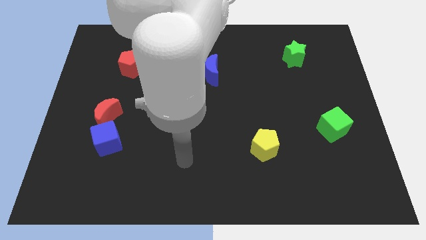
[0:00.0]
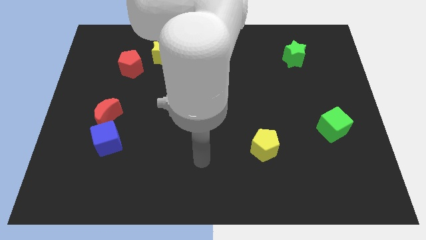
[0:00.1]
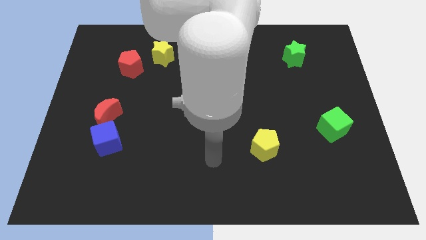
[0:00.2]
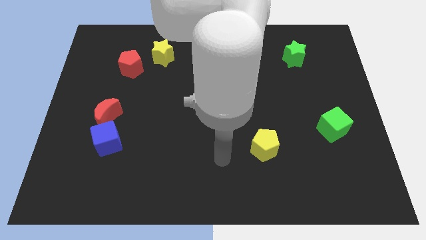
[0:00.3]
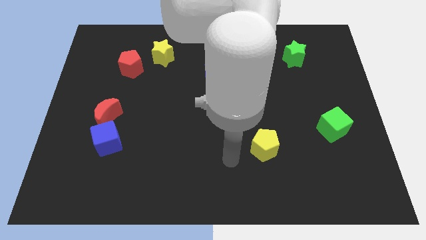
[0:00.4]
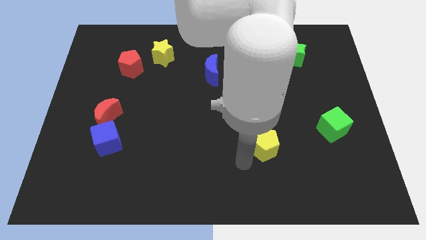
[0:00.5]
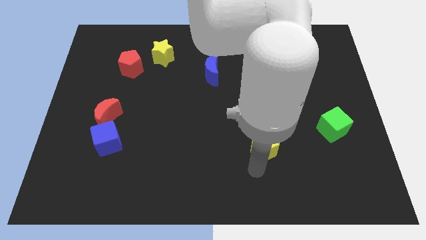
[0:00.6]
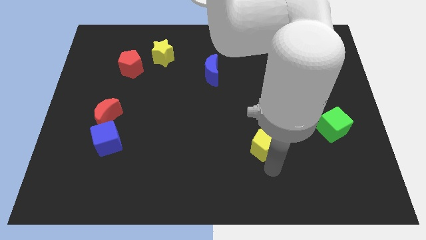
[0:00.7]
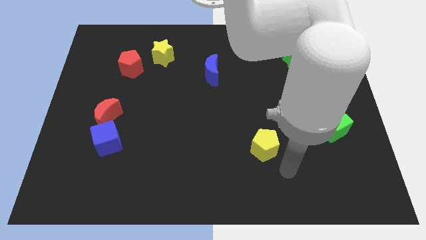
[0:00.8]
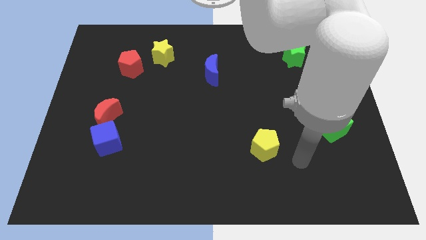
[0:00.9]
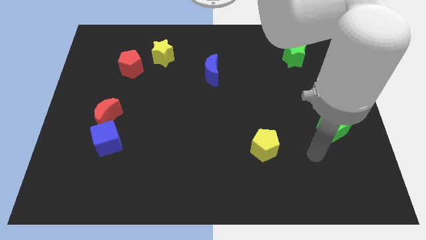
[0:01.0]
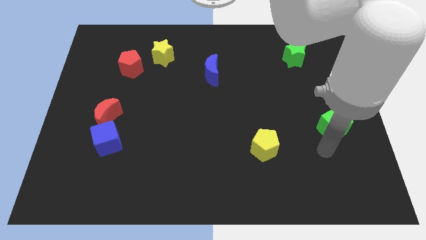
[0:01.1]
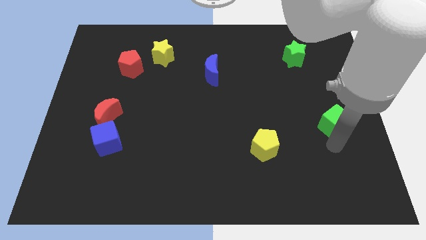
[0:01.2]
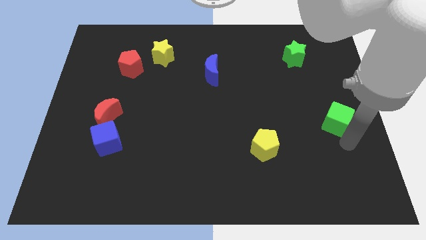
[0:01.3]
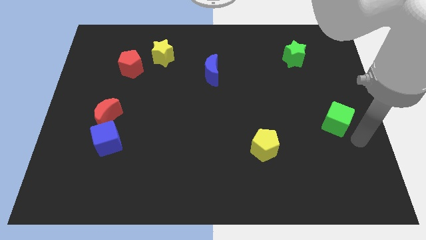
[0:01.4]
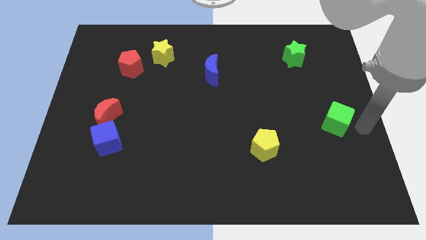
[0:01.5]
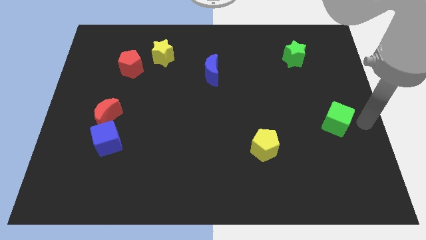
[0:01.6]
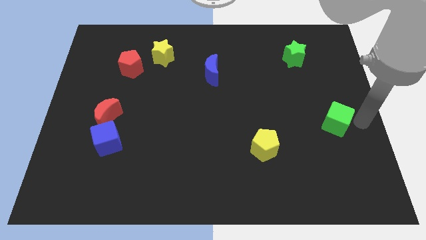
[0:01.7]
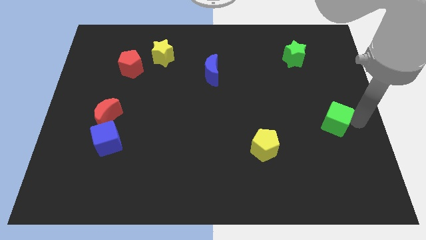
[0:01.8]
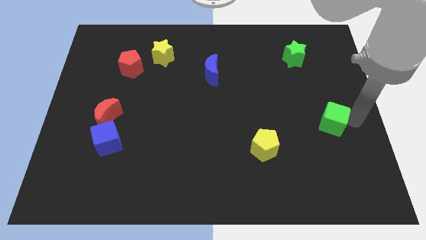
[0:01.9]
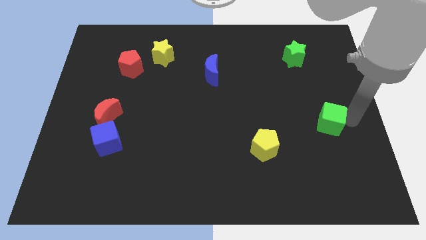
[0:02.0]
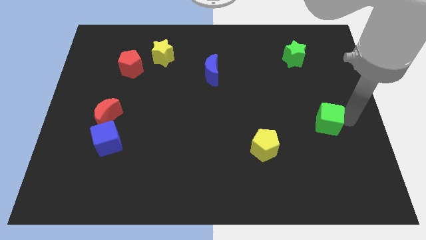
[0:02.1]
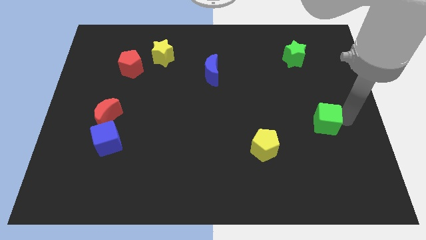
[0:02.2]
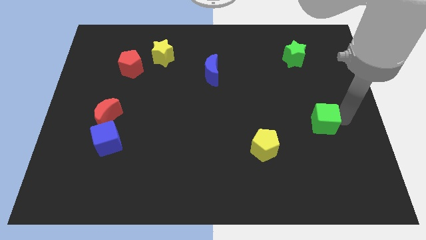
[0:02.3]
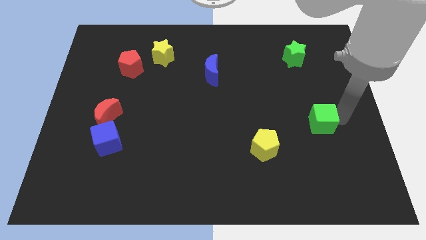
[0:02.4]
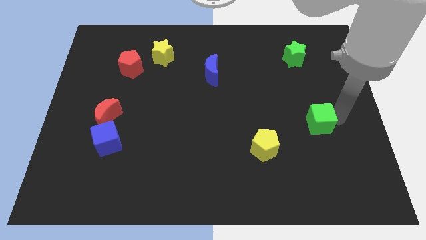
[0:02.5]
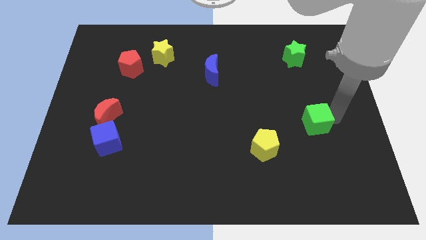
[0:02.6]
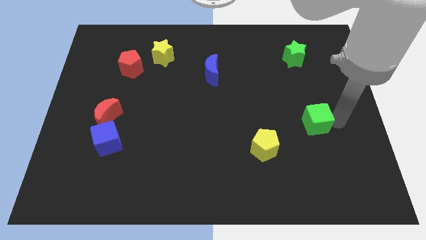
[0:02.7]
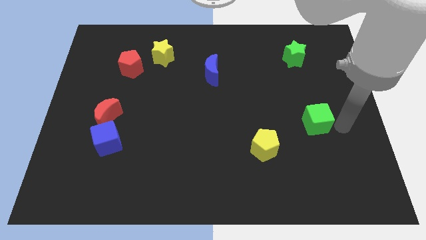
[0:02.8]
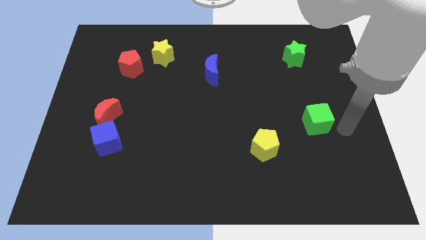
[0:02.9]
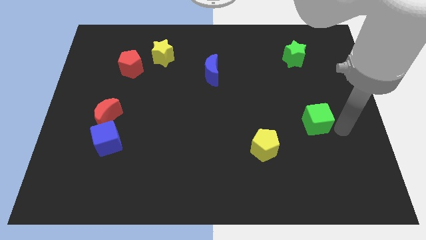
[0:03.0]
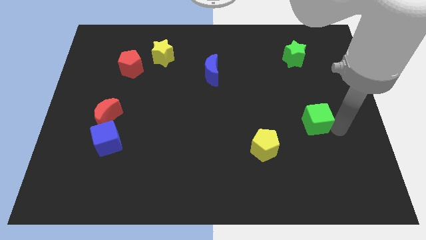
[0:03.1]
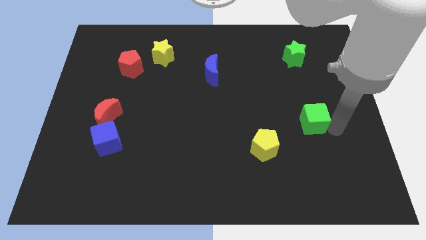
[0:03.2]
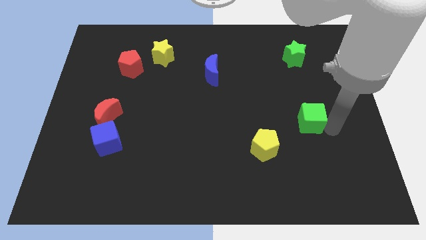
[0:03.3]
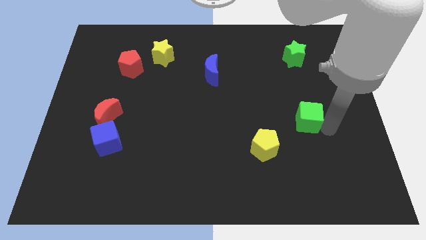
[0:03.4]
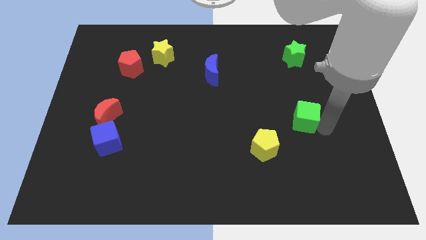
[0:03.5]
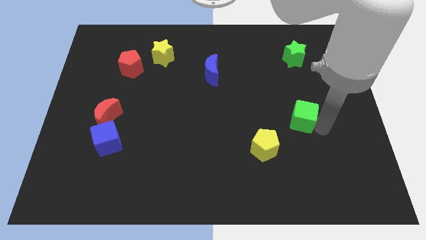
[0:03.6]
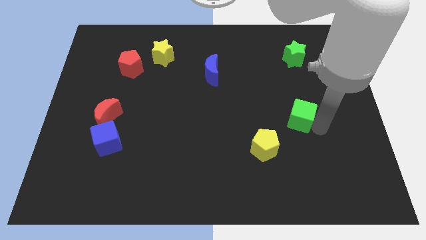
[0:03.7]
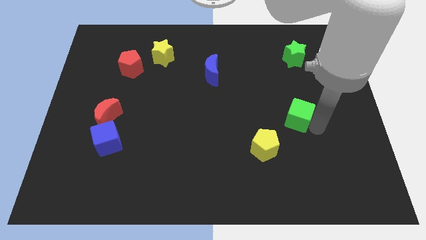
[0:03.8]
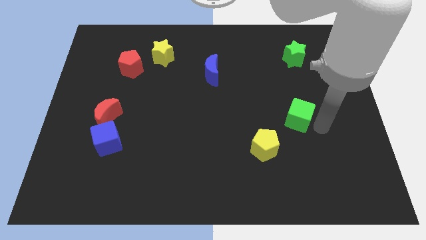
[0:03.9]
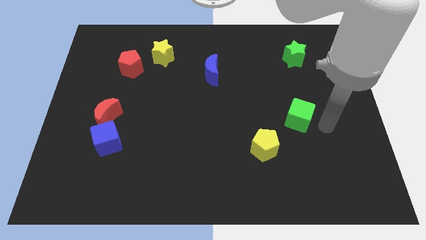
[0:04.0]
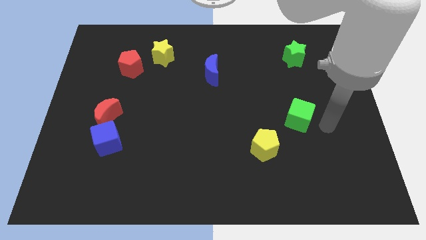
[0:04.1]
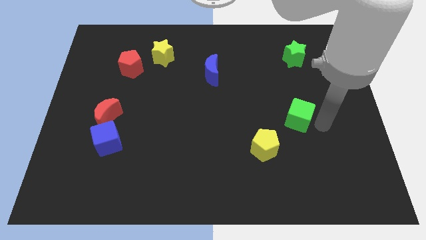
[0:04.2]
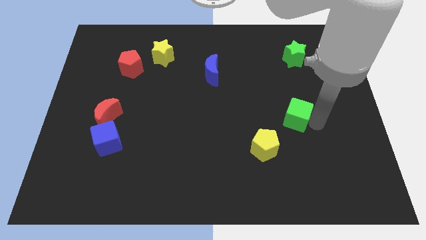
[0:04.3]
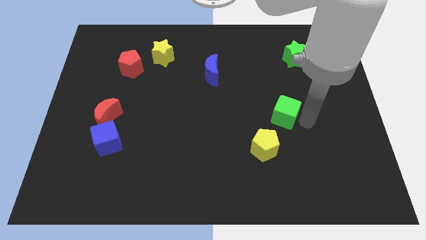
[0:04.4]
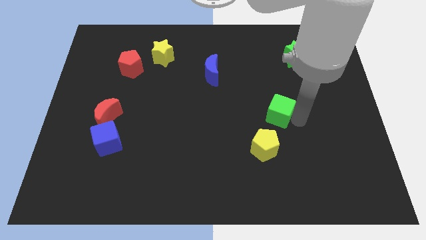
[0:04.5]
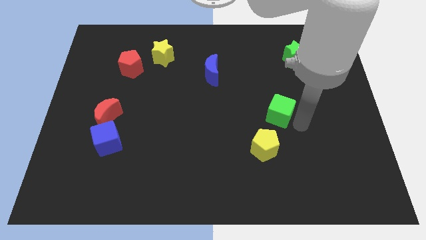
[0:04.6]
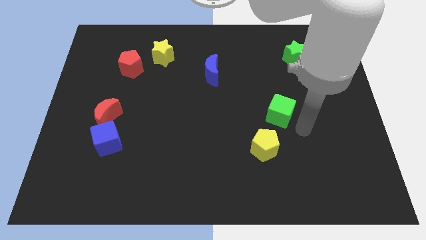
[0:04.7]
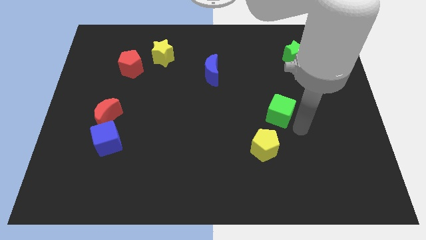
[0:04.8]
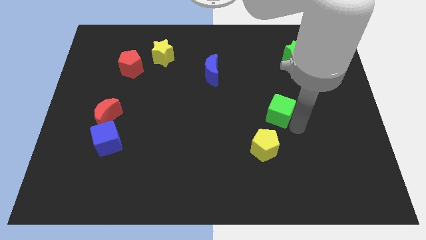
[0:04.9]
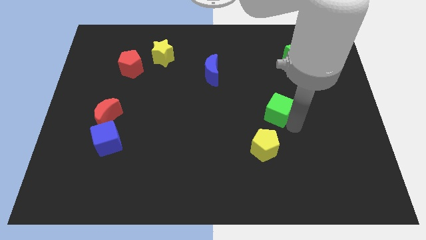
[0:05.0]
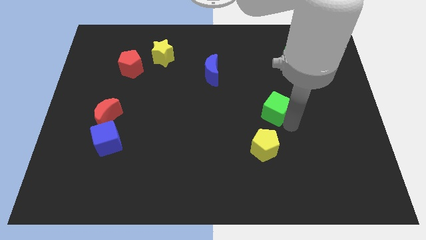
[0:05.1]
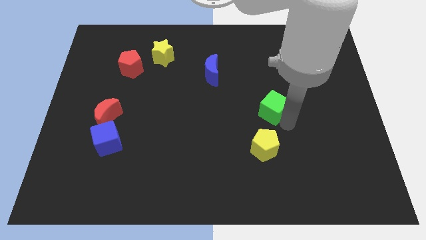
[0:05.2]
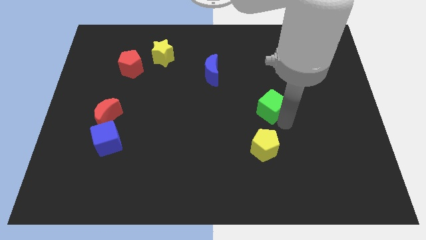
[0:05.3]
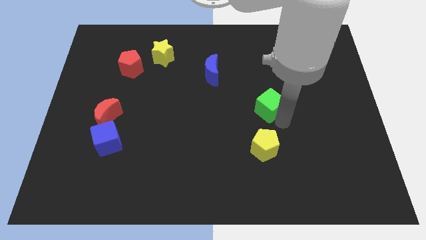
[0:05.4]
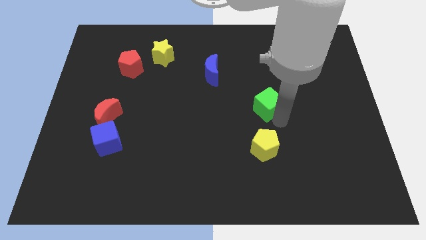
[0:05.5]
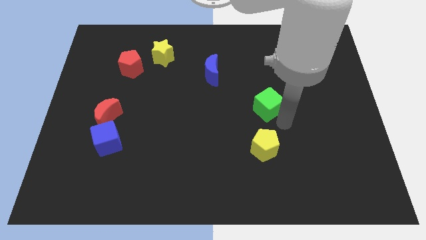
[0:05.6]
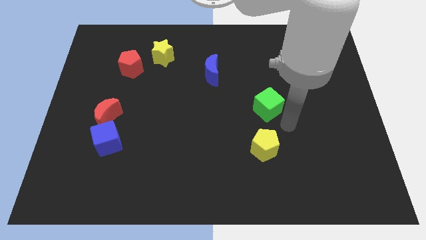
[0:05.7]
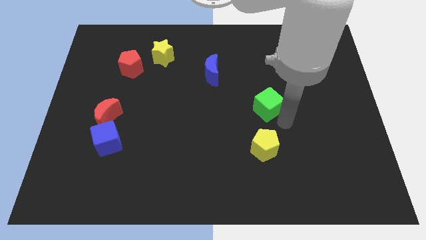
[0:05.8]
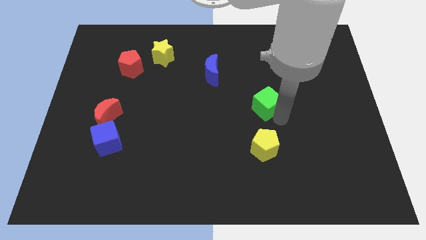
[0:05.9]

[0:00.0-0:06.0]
put the green cube to the middle of the board
